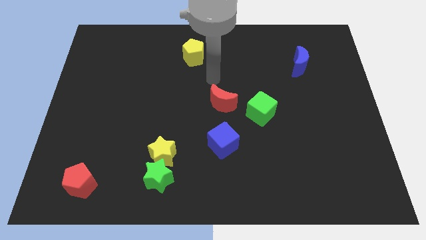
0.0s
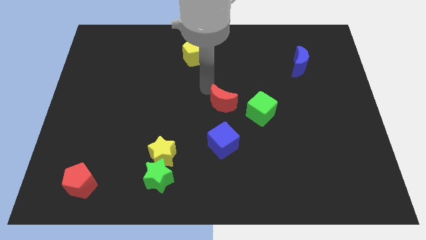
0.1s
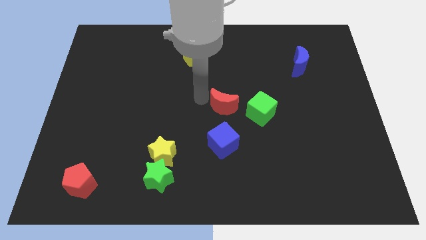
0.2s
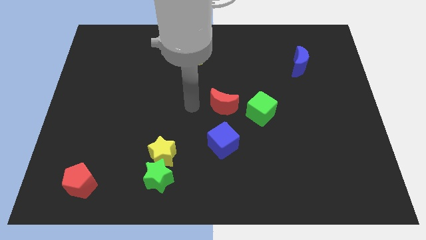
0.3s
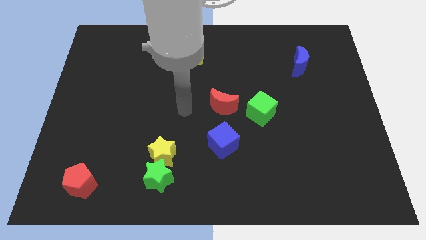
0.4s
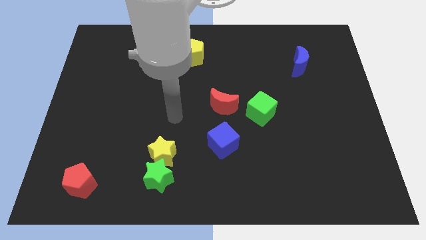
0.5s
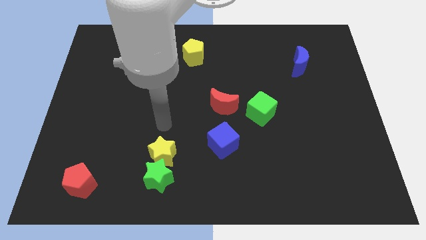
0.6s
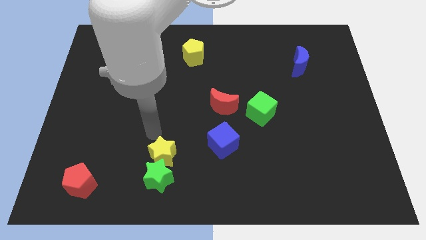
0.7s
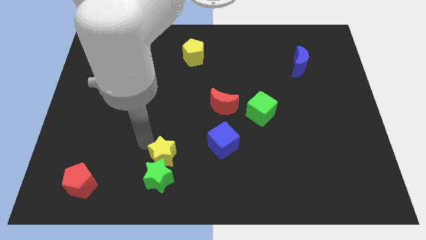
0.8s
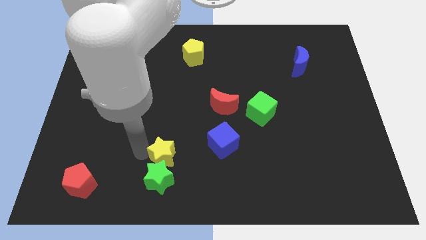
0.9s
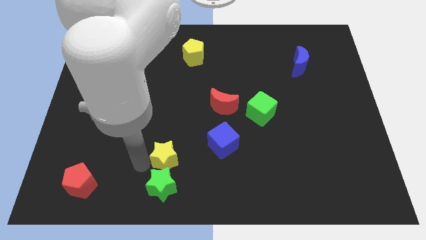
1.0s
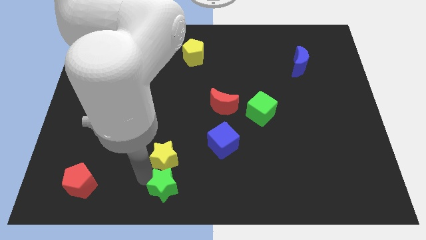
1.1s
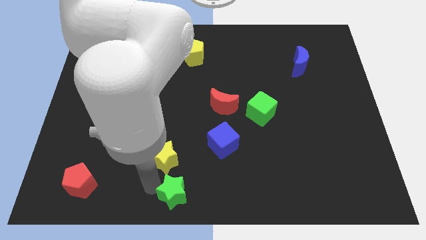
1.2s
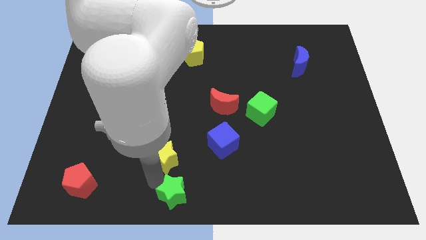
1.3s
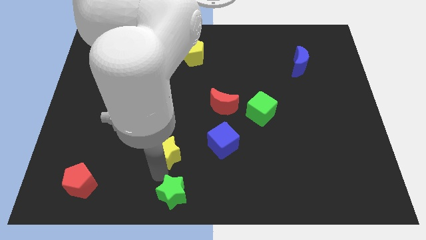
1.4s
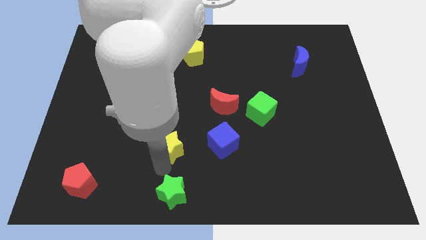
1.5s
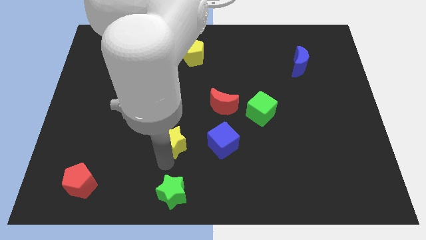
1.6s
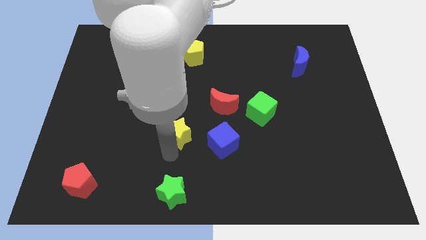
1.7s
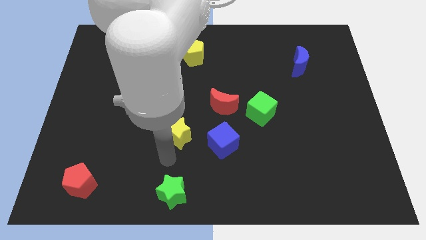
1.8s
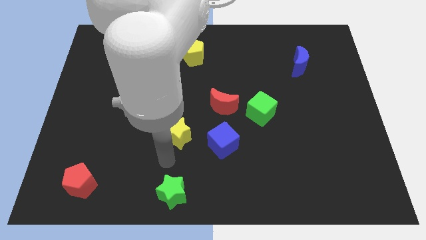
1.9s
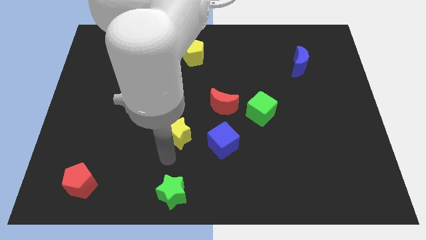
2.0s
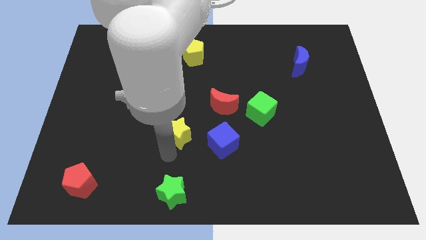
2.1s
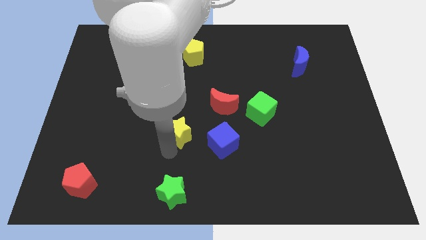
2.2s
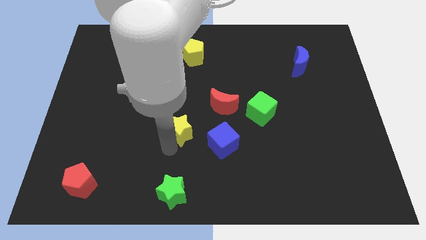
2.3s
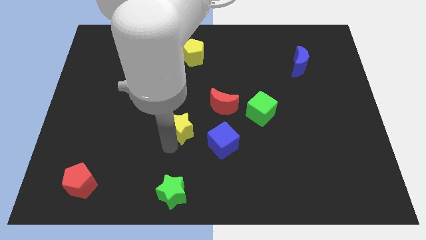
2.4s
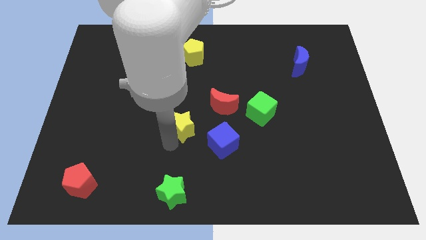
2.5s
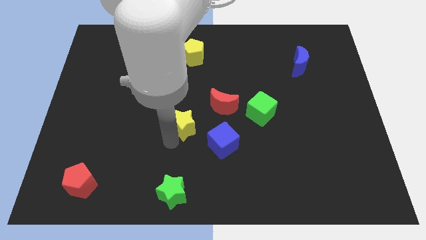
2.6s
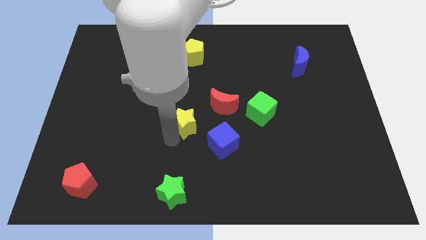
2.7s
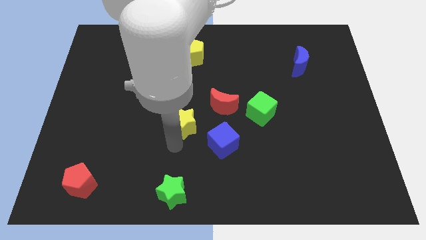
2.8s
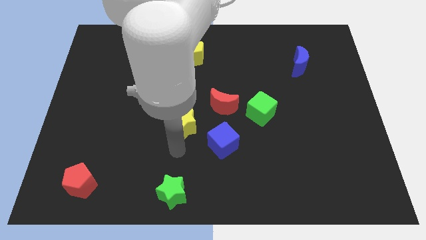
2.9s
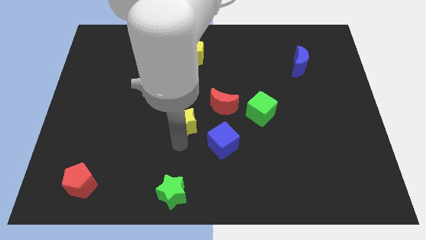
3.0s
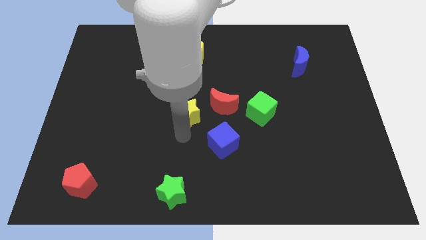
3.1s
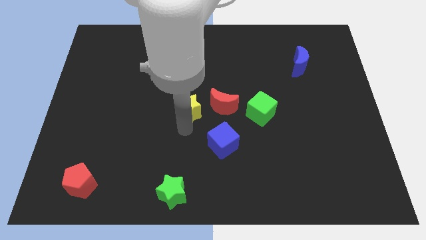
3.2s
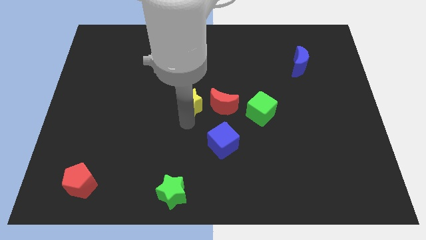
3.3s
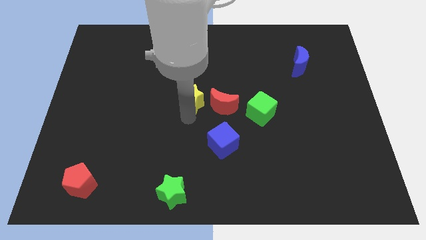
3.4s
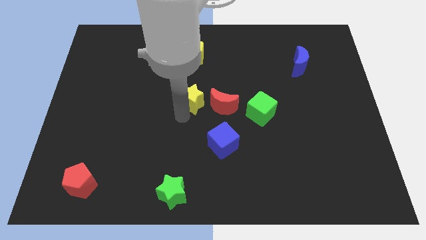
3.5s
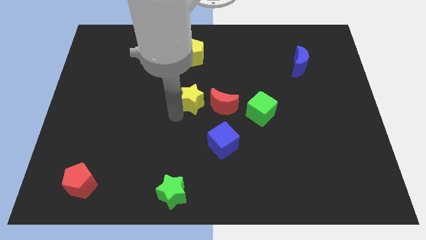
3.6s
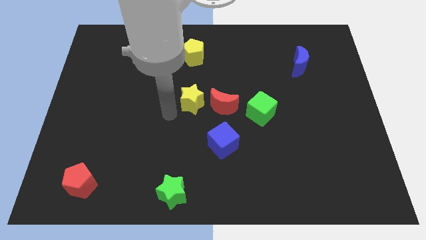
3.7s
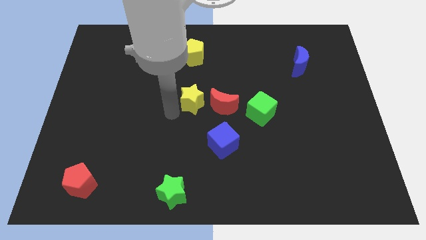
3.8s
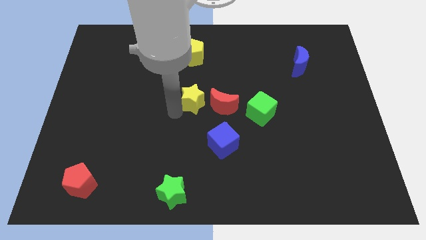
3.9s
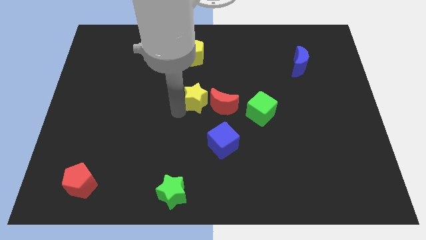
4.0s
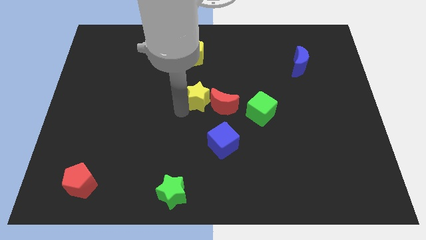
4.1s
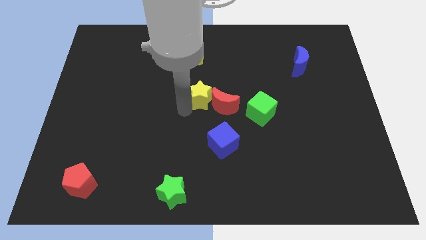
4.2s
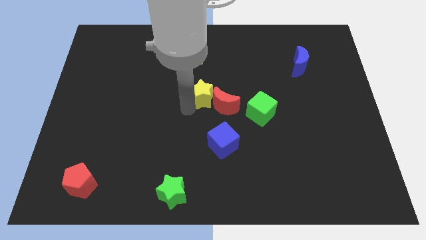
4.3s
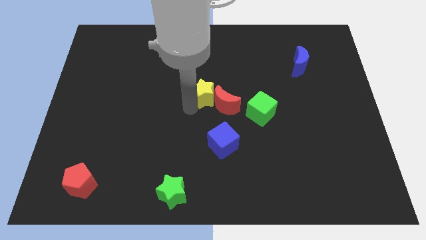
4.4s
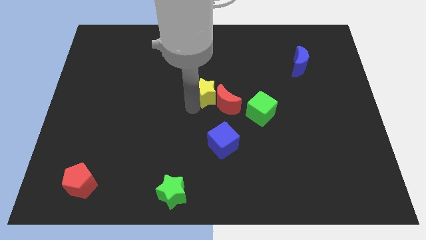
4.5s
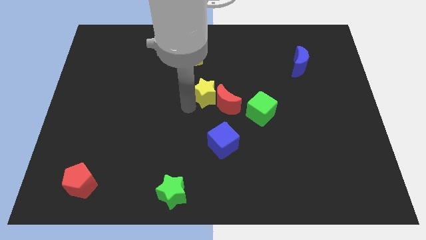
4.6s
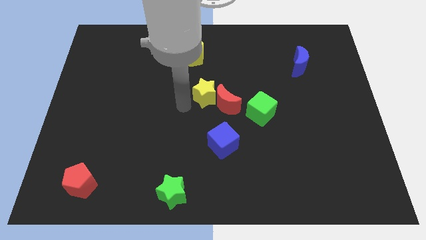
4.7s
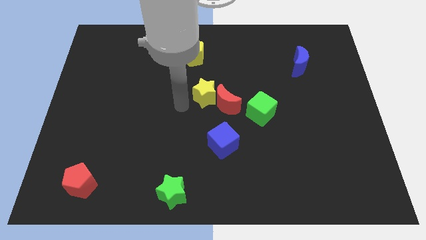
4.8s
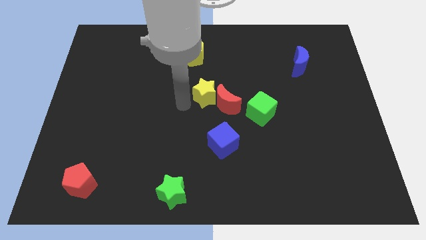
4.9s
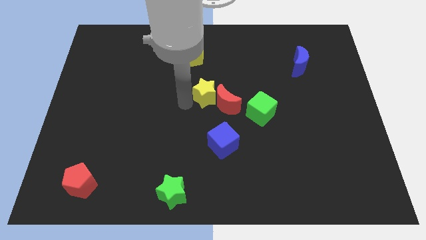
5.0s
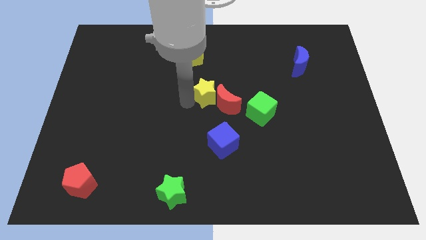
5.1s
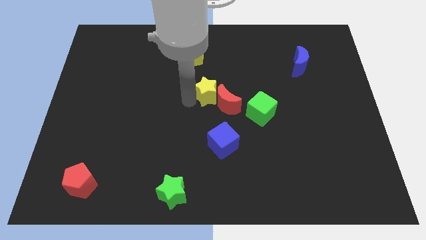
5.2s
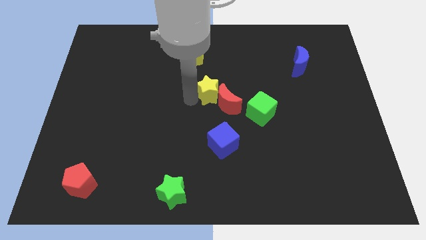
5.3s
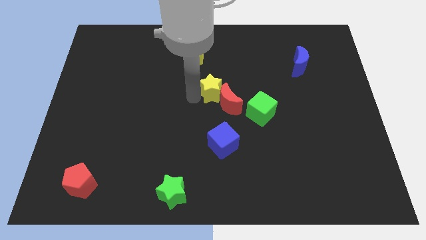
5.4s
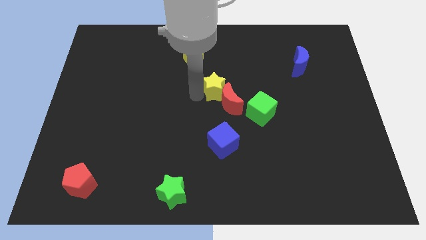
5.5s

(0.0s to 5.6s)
move the yellow star upwards and to the right diagonally

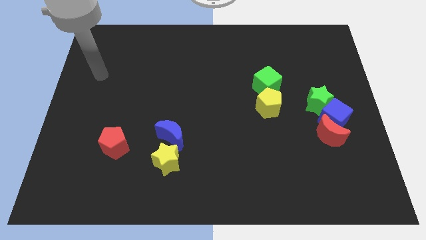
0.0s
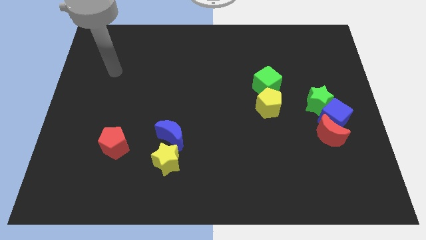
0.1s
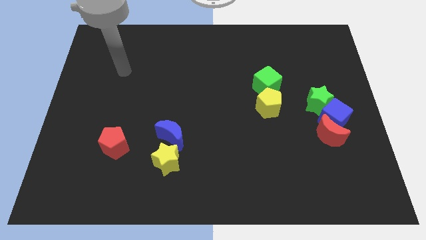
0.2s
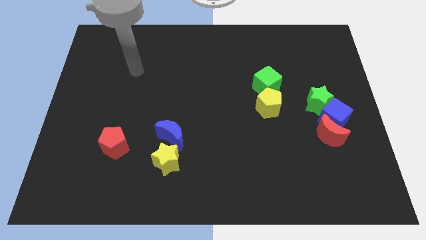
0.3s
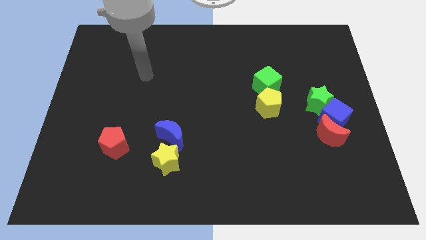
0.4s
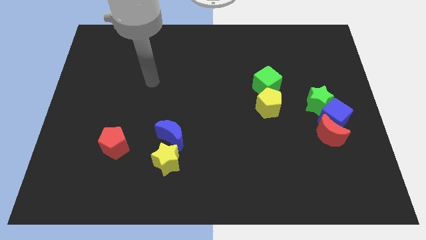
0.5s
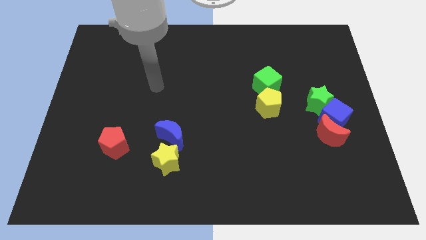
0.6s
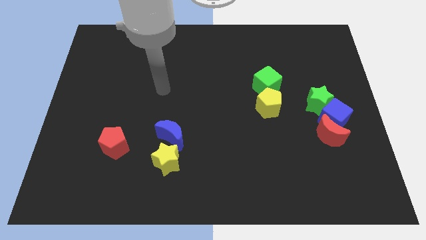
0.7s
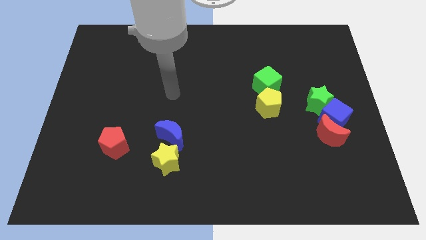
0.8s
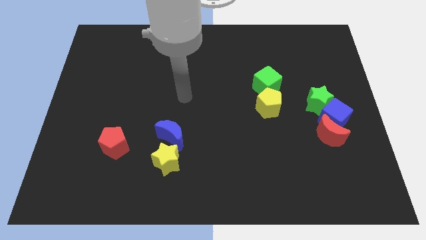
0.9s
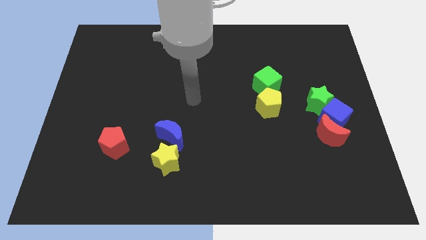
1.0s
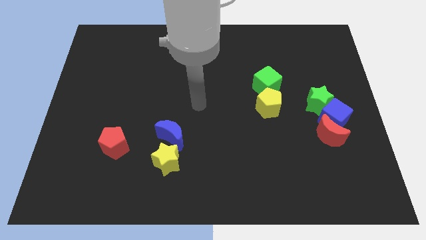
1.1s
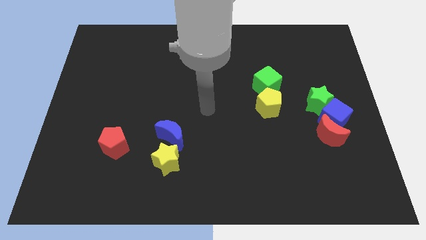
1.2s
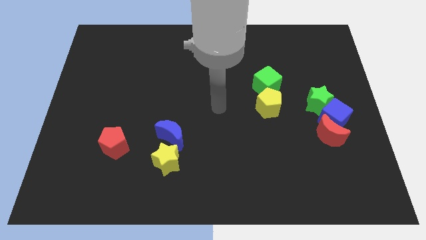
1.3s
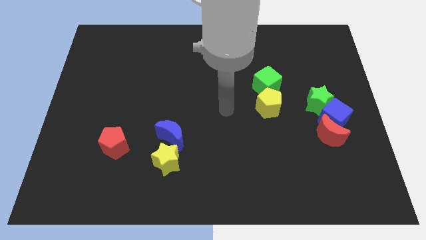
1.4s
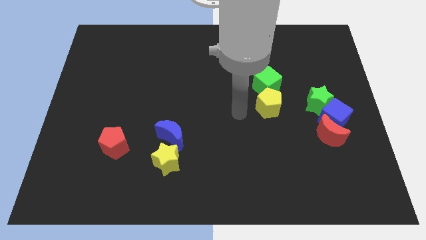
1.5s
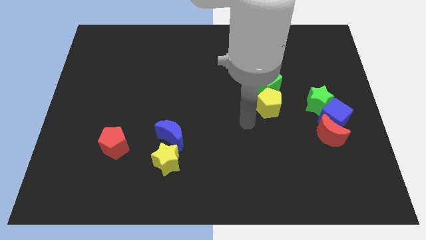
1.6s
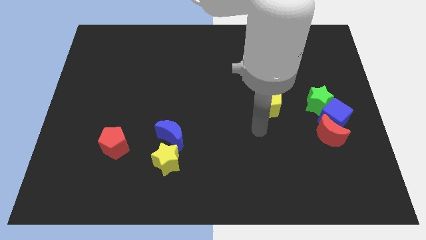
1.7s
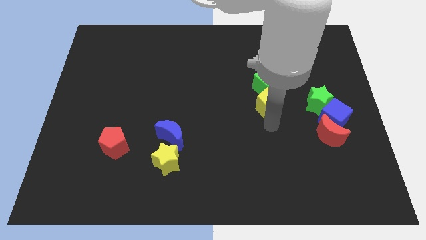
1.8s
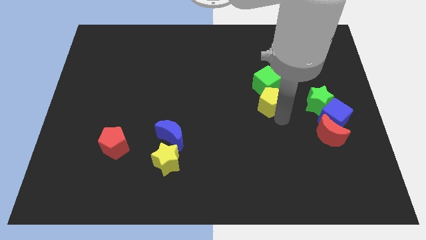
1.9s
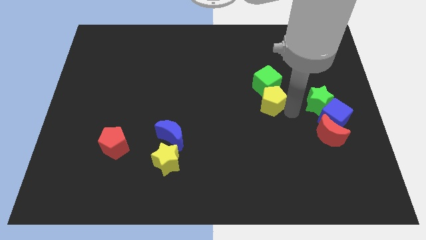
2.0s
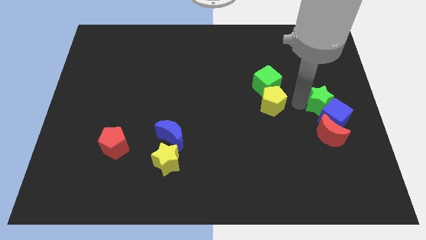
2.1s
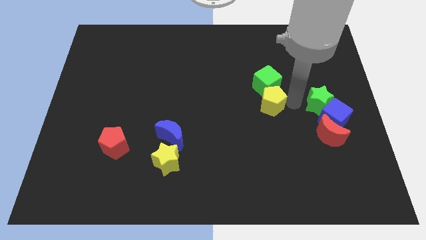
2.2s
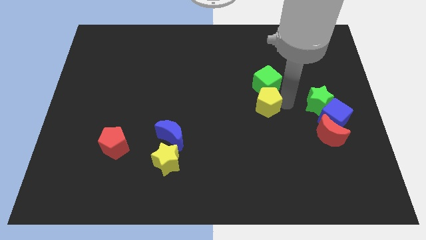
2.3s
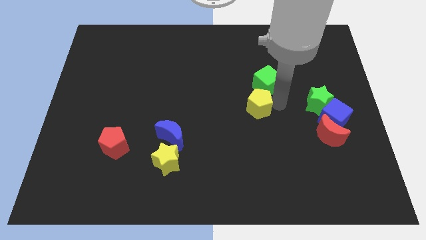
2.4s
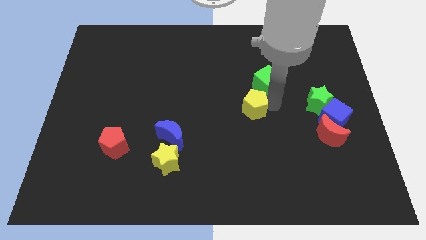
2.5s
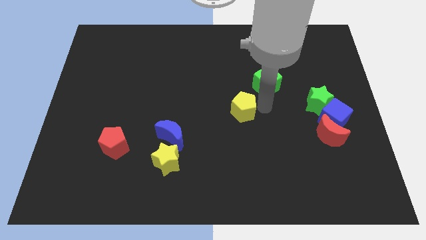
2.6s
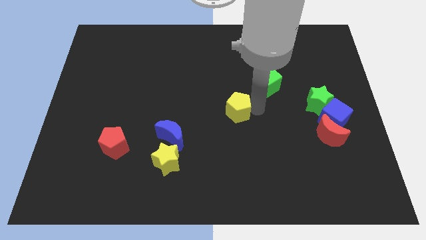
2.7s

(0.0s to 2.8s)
slide the yellow pentagon left somewhat
